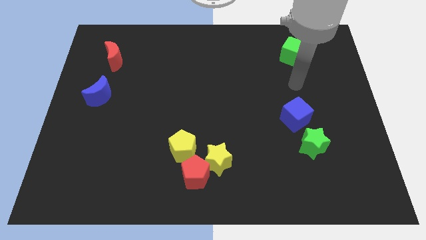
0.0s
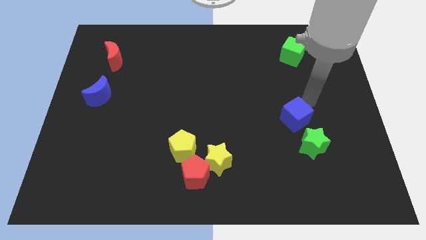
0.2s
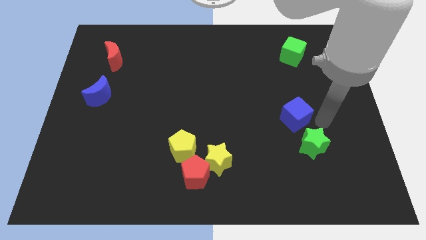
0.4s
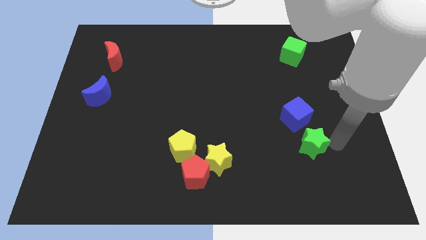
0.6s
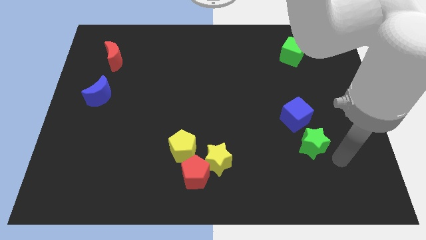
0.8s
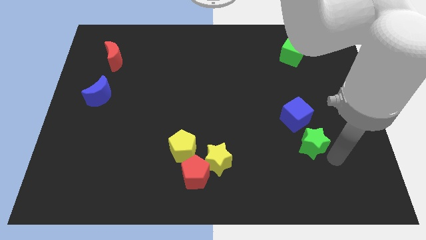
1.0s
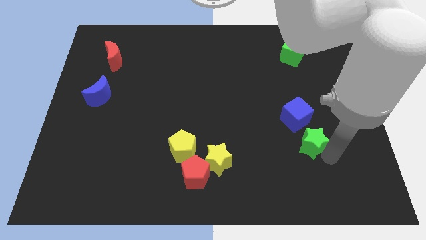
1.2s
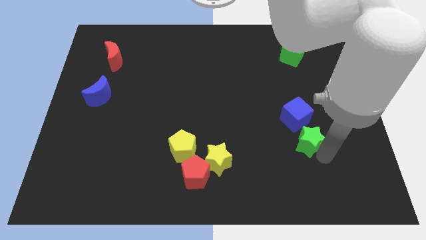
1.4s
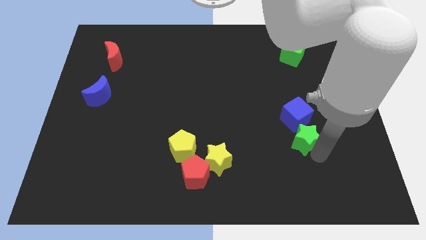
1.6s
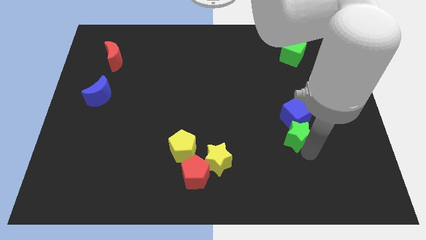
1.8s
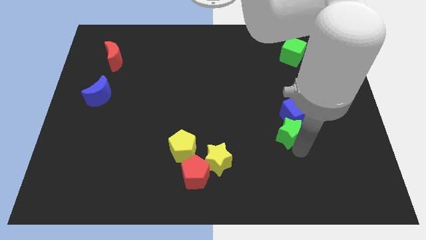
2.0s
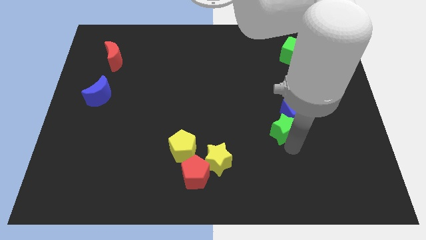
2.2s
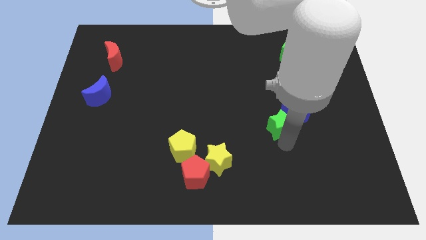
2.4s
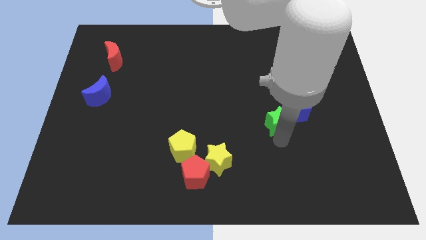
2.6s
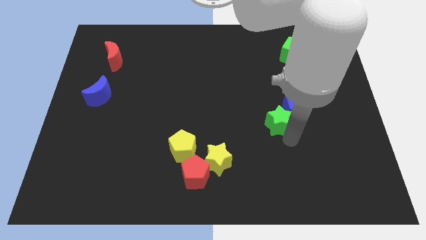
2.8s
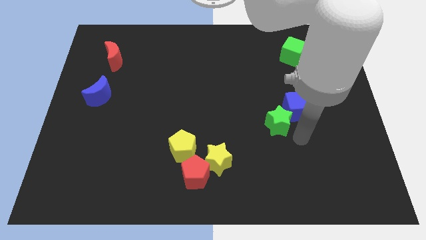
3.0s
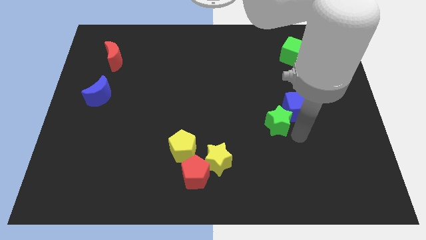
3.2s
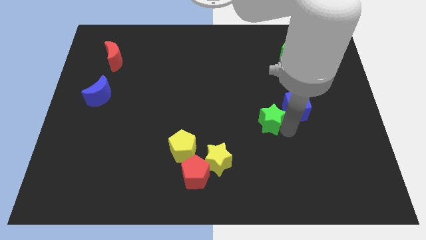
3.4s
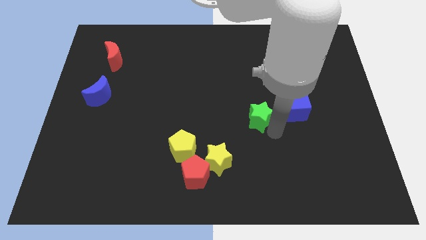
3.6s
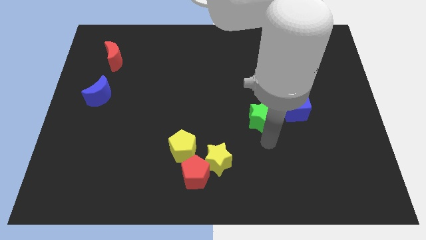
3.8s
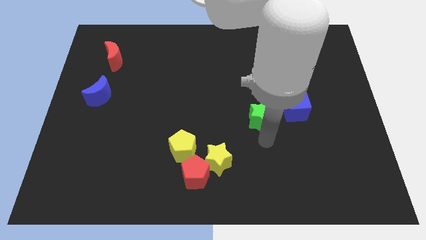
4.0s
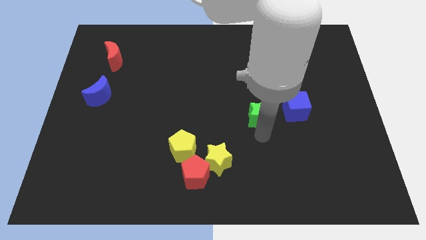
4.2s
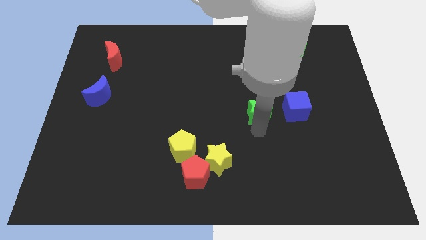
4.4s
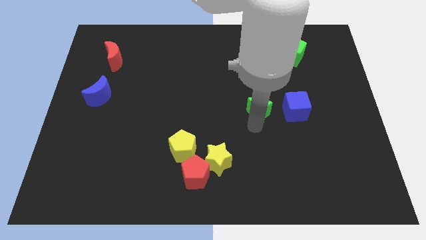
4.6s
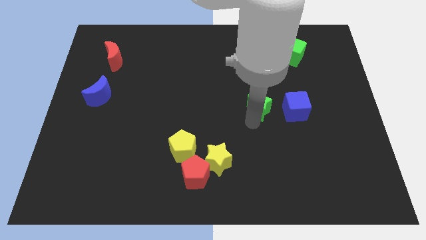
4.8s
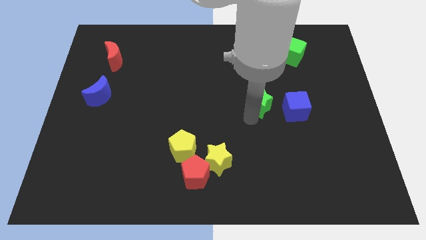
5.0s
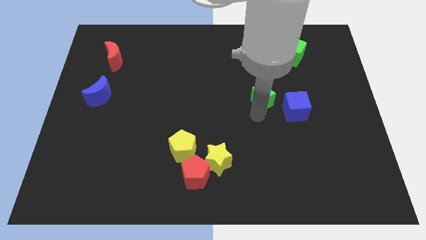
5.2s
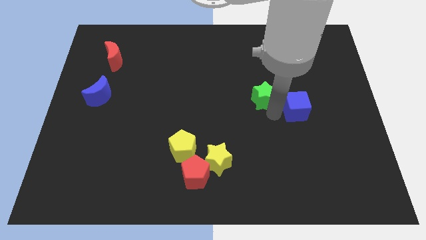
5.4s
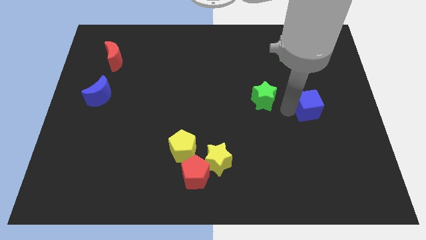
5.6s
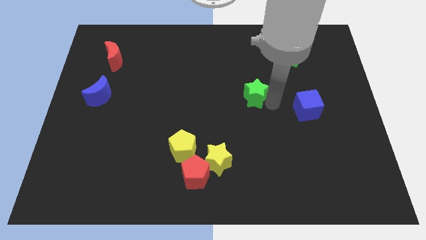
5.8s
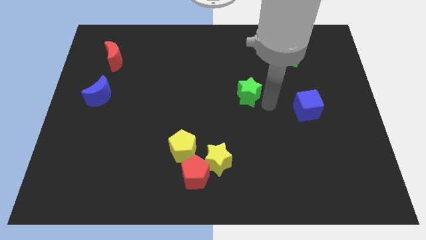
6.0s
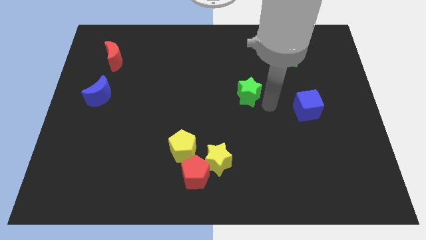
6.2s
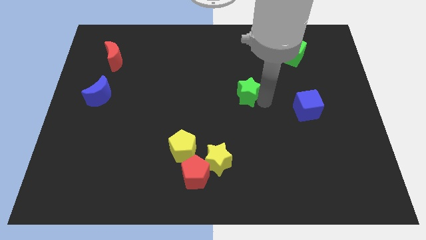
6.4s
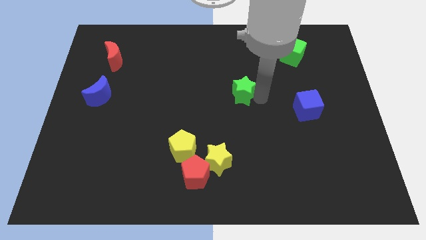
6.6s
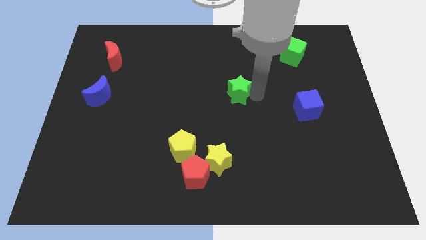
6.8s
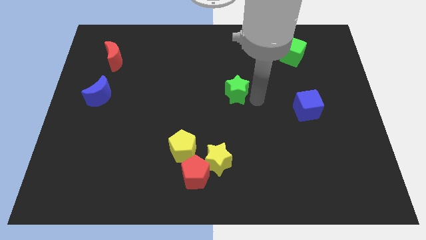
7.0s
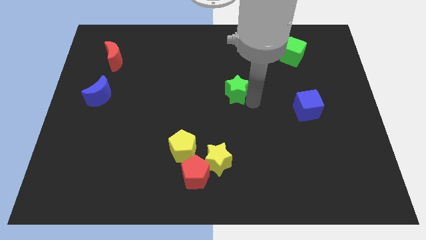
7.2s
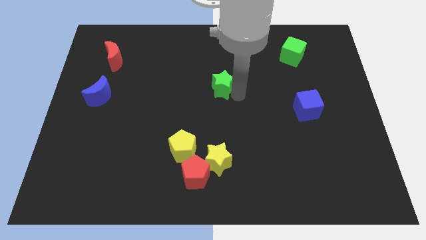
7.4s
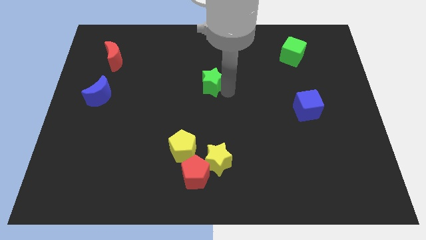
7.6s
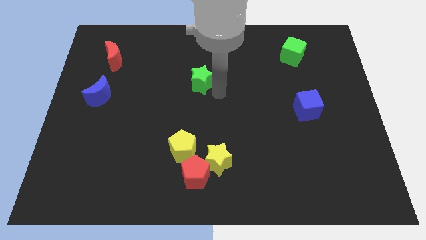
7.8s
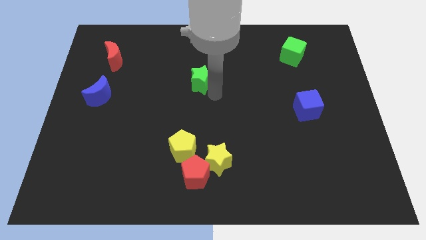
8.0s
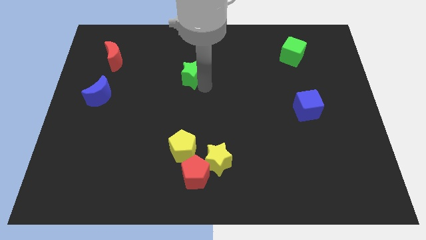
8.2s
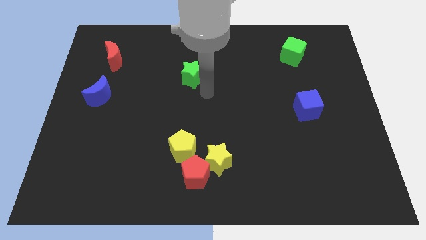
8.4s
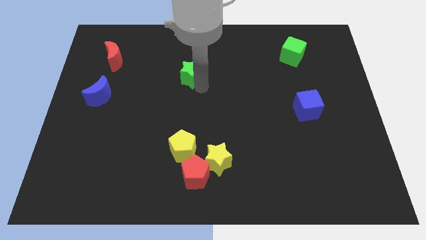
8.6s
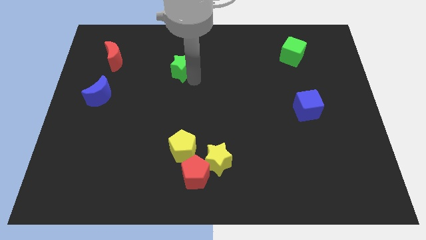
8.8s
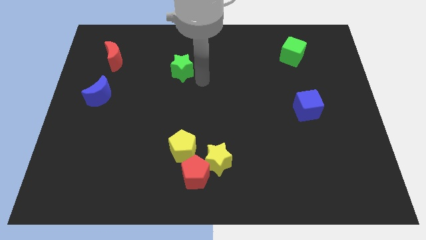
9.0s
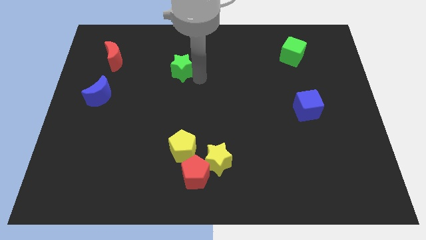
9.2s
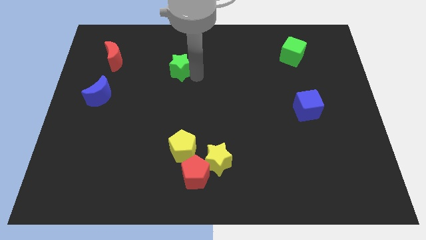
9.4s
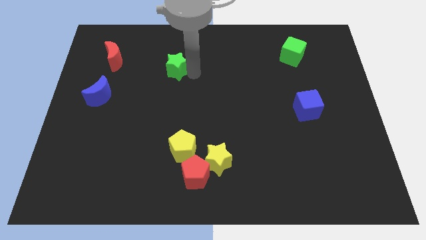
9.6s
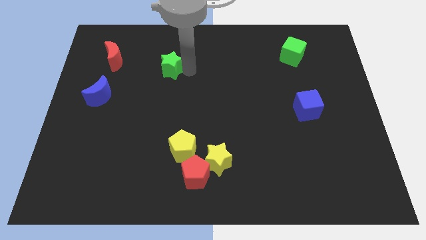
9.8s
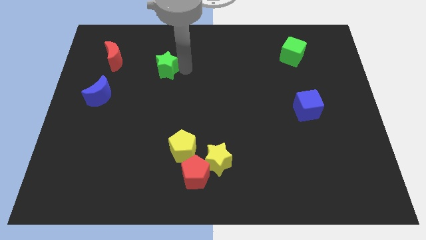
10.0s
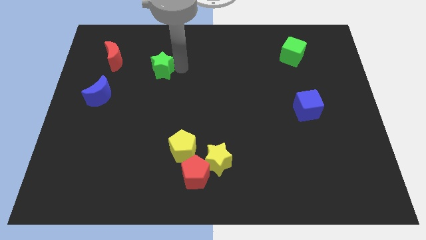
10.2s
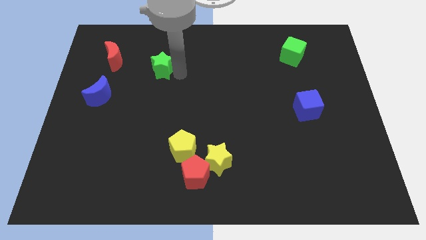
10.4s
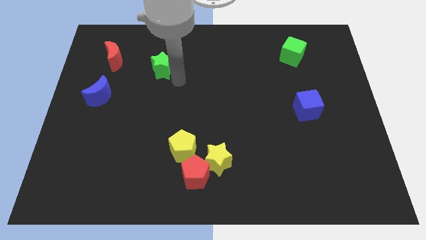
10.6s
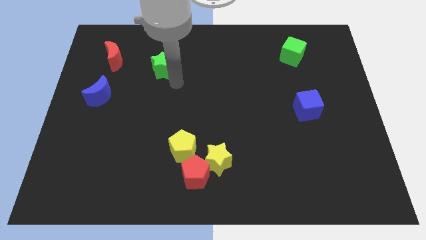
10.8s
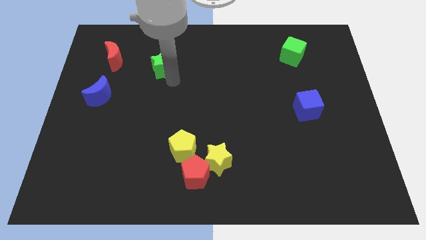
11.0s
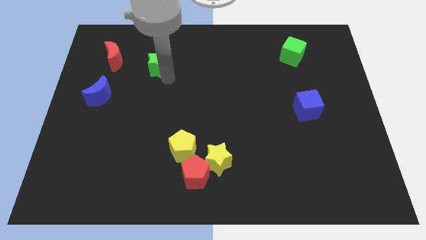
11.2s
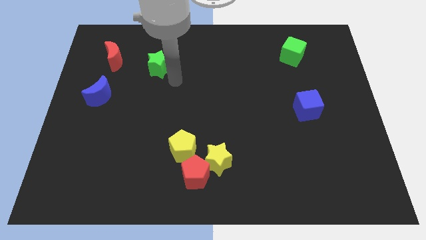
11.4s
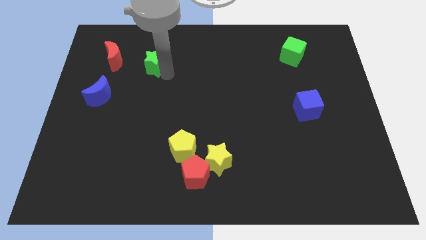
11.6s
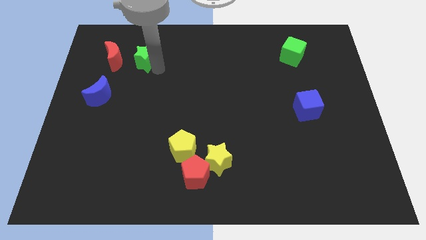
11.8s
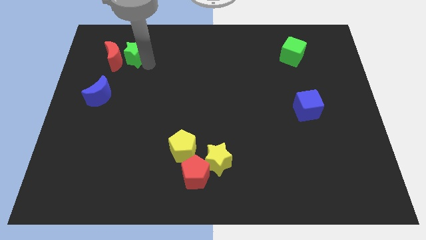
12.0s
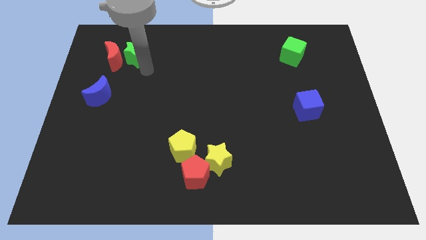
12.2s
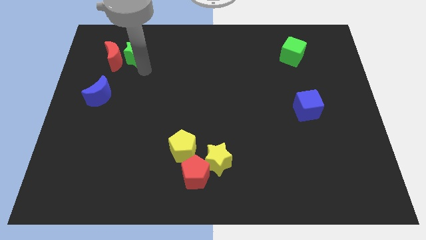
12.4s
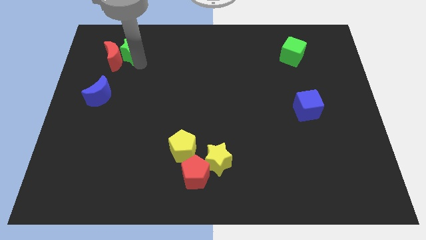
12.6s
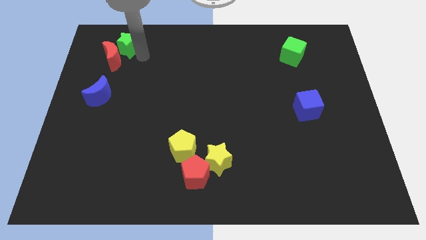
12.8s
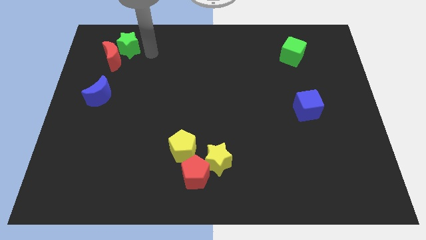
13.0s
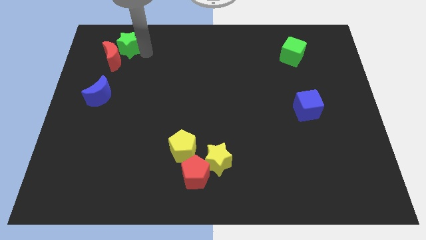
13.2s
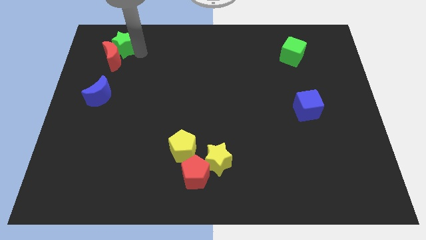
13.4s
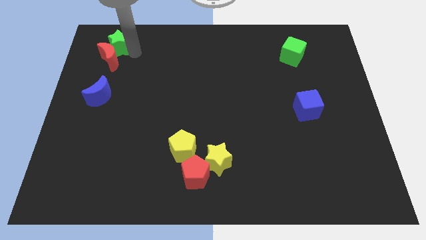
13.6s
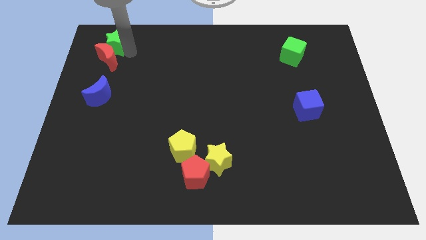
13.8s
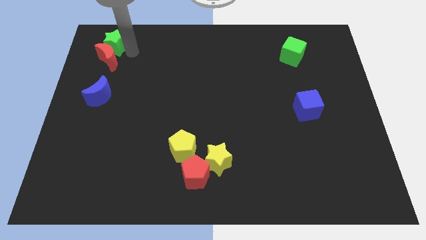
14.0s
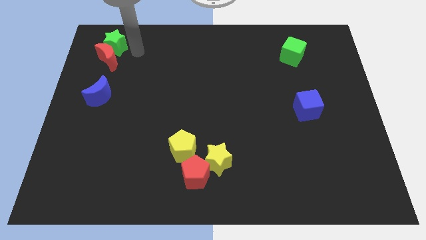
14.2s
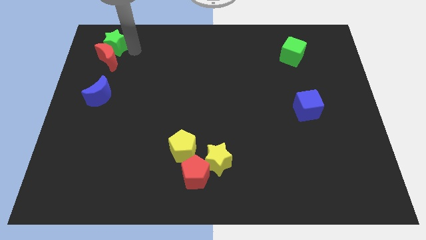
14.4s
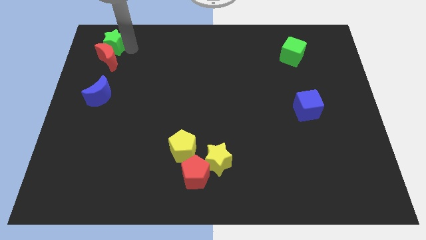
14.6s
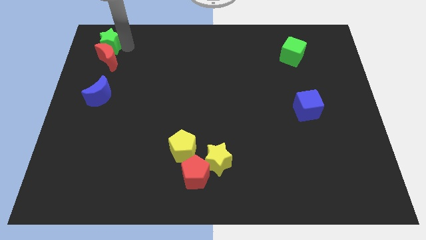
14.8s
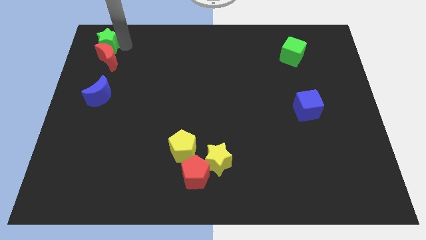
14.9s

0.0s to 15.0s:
slide the green star to the top left of the board
